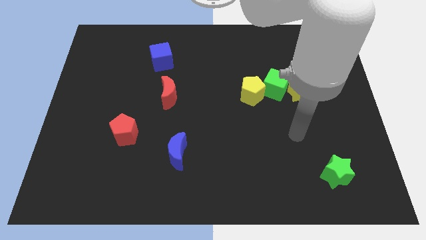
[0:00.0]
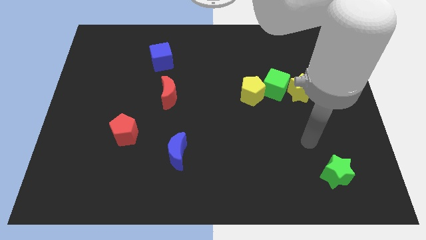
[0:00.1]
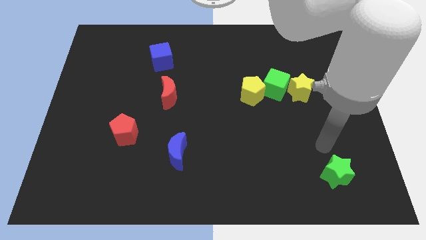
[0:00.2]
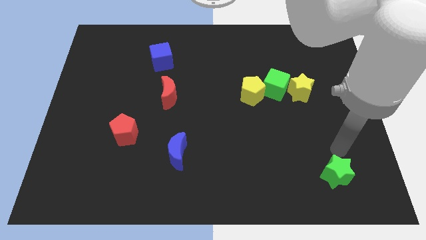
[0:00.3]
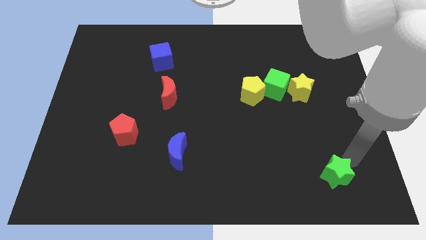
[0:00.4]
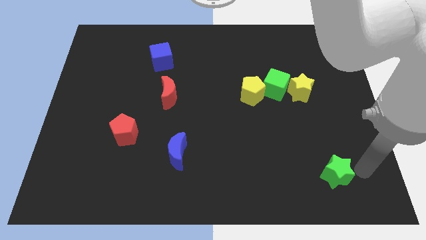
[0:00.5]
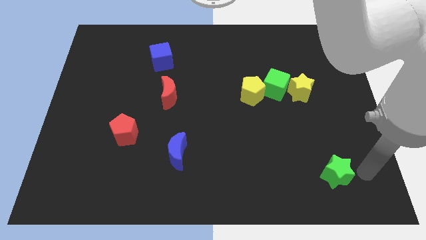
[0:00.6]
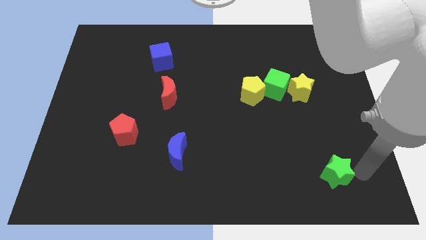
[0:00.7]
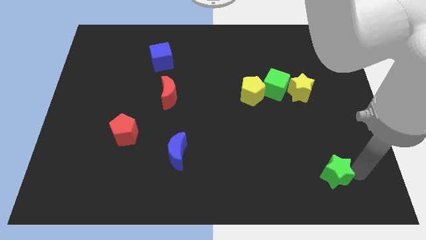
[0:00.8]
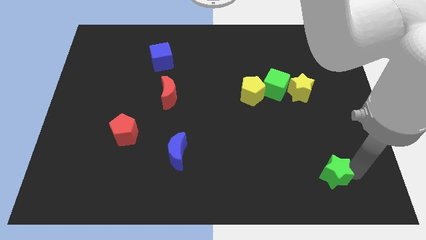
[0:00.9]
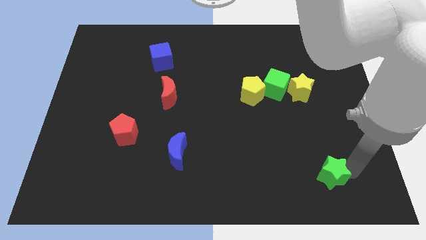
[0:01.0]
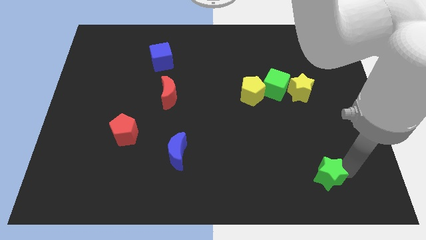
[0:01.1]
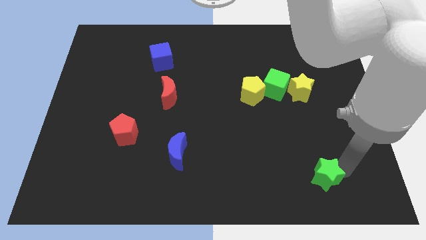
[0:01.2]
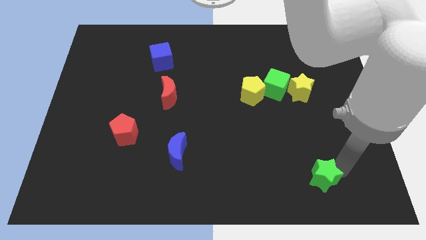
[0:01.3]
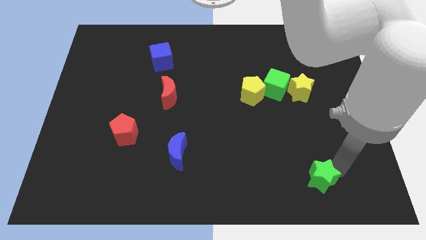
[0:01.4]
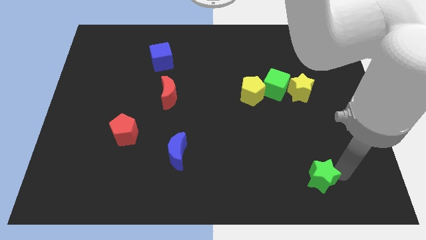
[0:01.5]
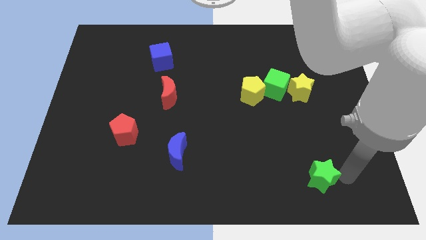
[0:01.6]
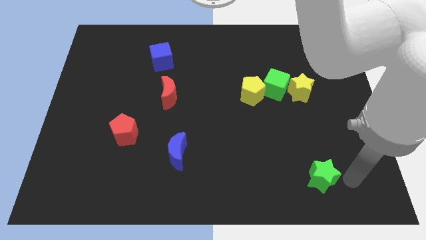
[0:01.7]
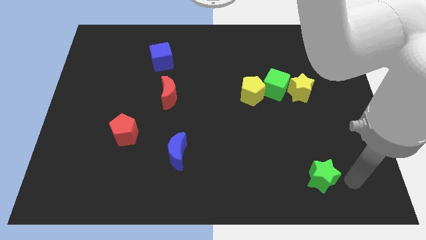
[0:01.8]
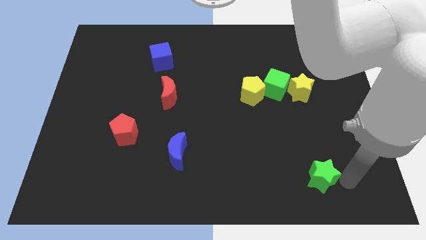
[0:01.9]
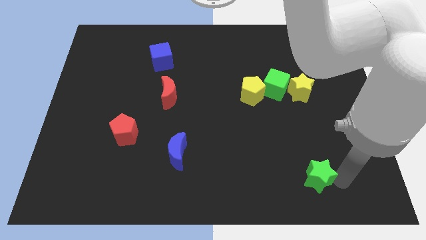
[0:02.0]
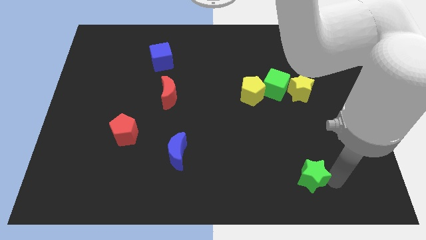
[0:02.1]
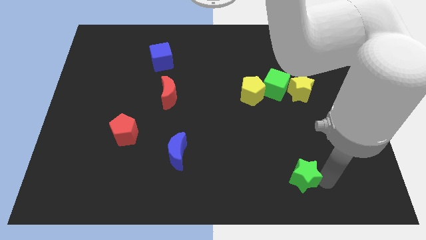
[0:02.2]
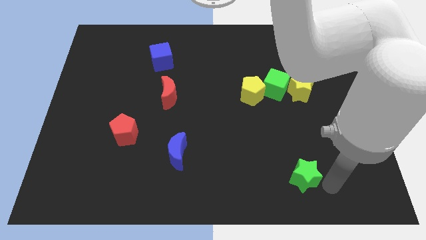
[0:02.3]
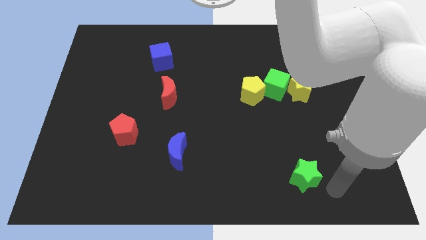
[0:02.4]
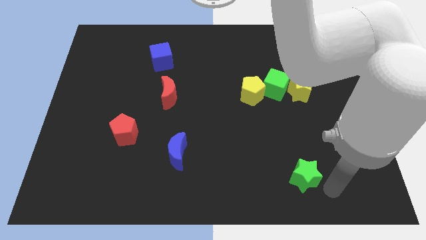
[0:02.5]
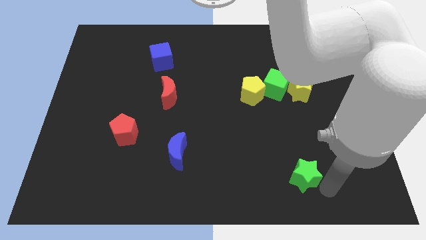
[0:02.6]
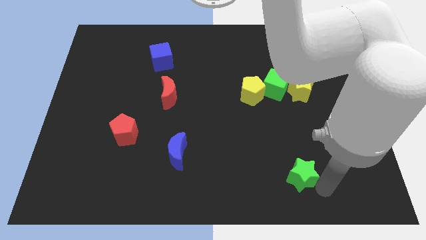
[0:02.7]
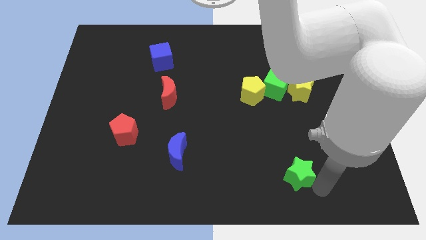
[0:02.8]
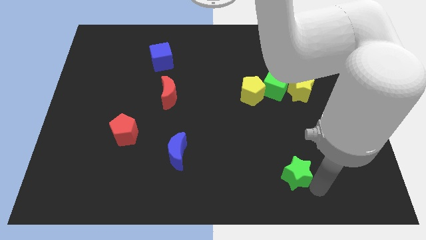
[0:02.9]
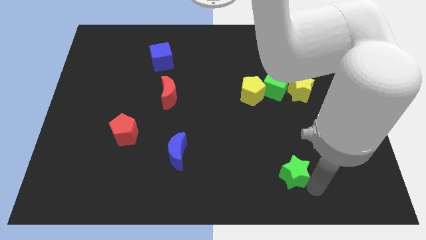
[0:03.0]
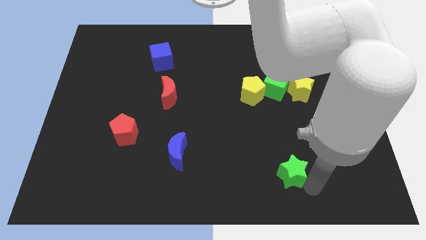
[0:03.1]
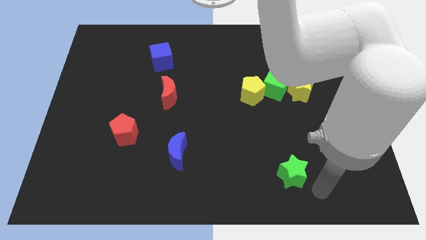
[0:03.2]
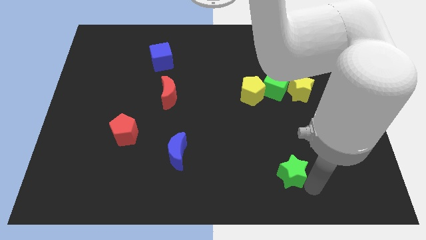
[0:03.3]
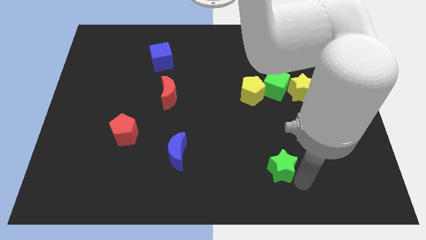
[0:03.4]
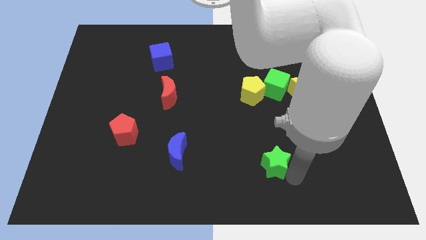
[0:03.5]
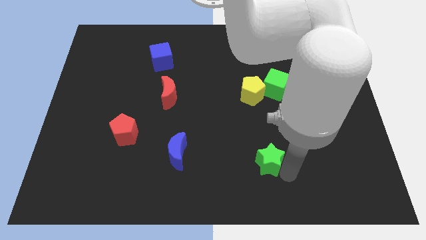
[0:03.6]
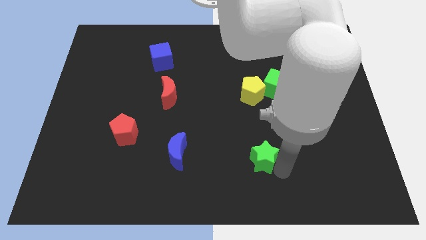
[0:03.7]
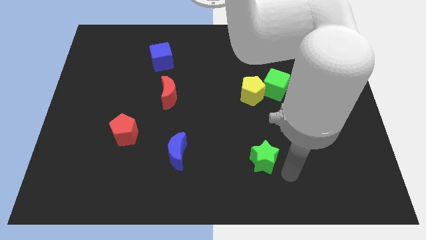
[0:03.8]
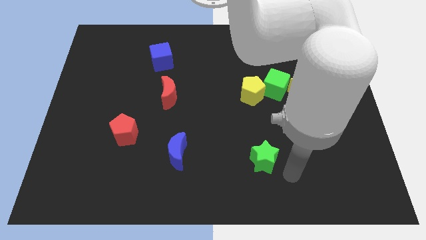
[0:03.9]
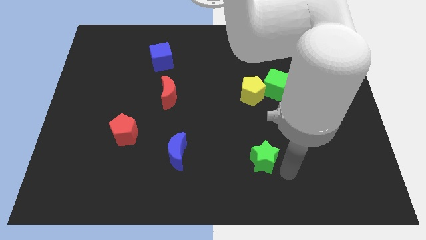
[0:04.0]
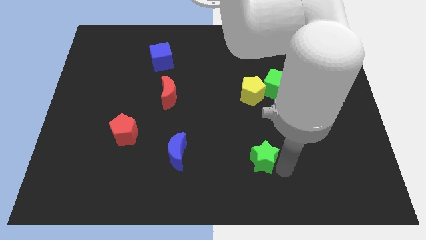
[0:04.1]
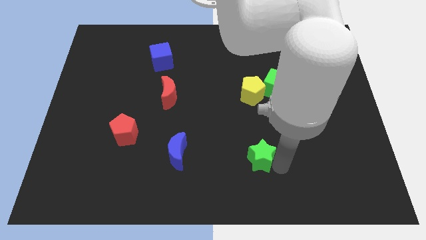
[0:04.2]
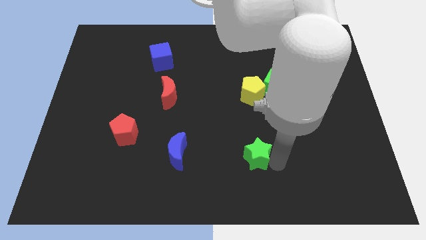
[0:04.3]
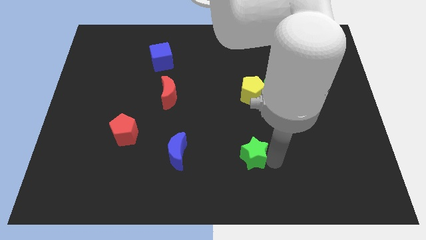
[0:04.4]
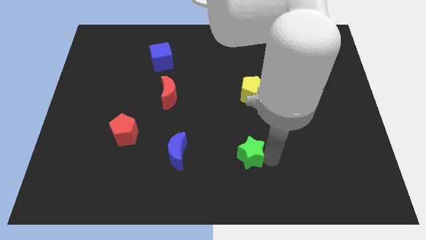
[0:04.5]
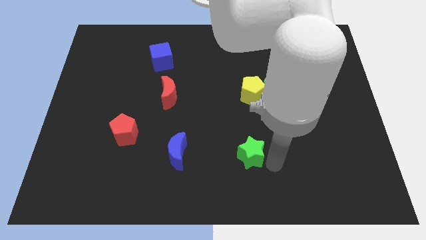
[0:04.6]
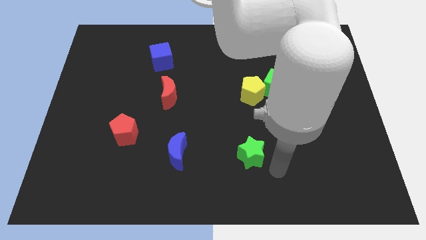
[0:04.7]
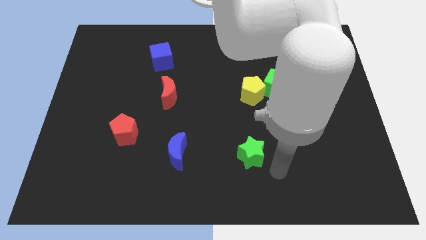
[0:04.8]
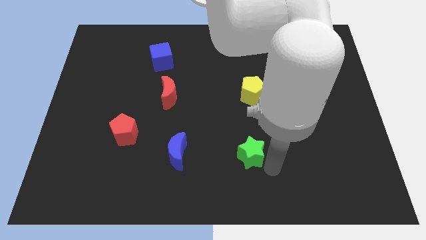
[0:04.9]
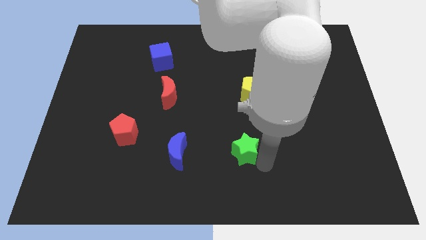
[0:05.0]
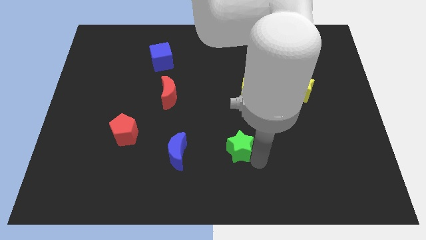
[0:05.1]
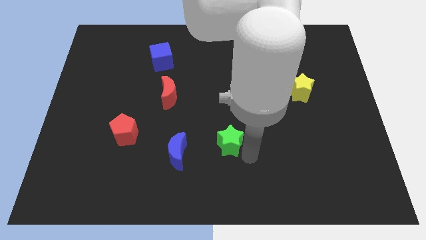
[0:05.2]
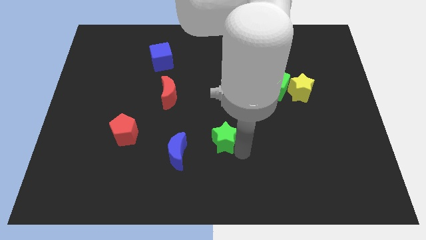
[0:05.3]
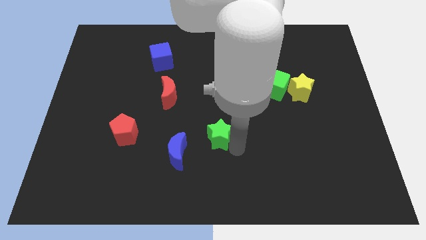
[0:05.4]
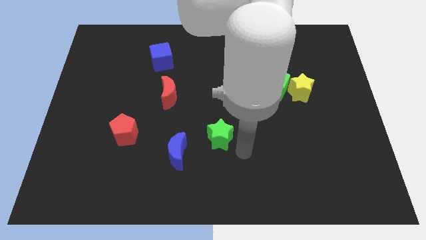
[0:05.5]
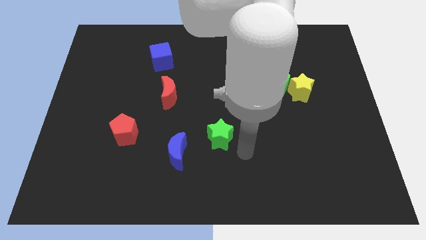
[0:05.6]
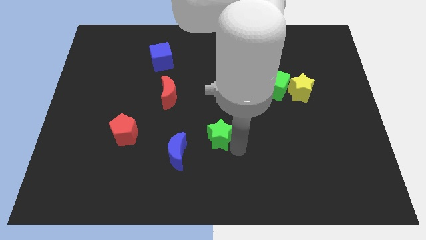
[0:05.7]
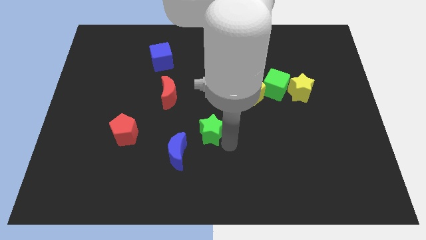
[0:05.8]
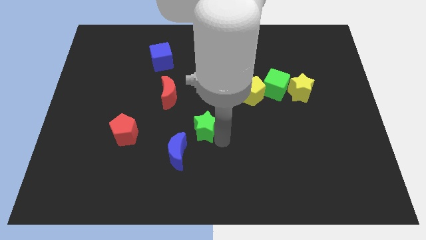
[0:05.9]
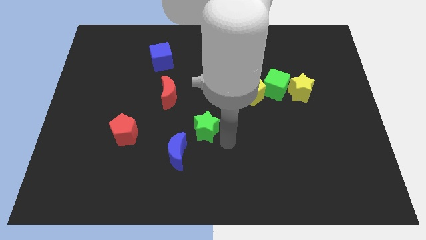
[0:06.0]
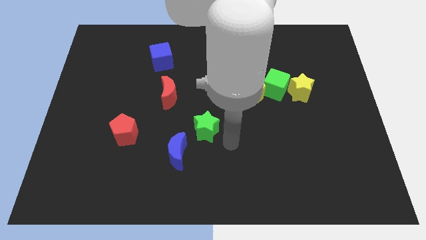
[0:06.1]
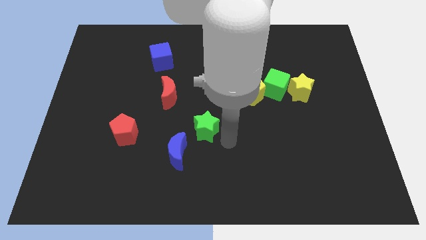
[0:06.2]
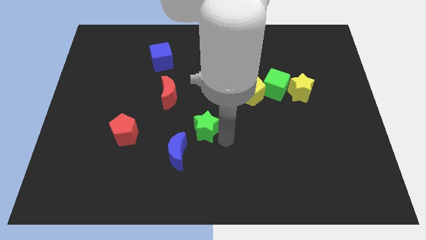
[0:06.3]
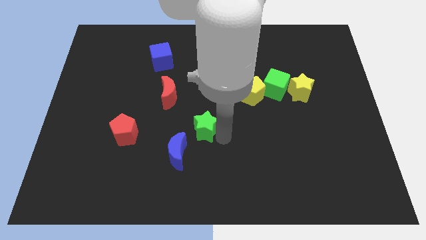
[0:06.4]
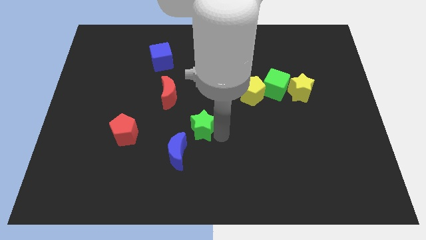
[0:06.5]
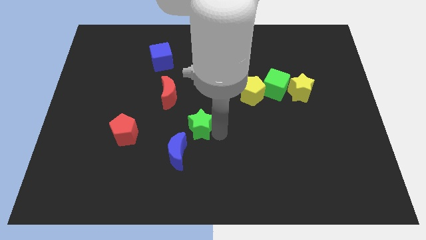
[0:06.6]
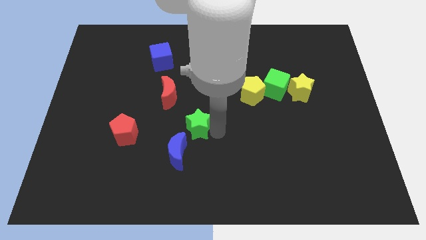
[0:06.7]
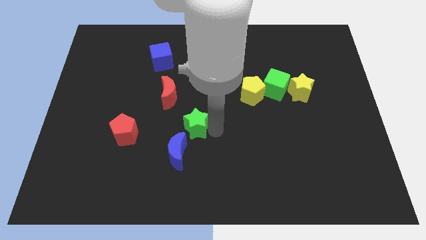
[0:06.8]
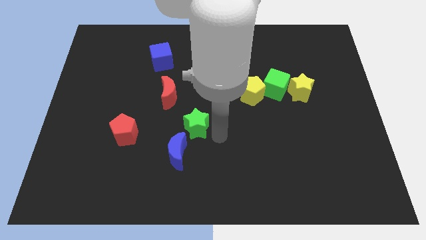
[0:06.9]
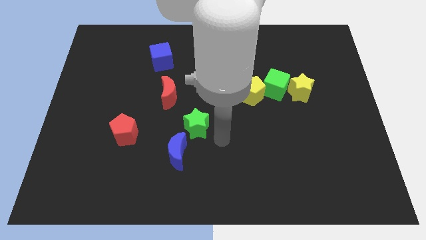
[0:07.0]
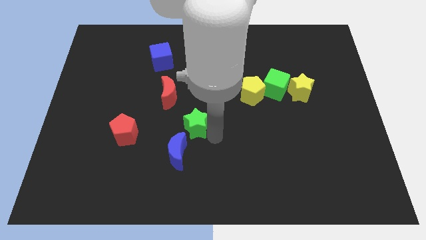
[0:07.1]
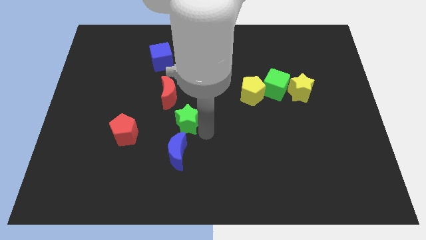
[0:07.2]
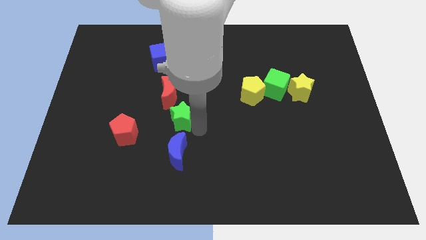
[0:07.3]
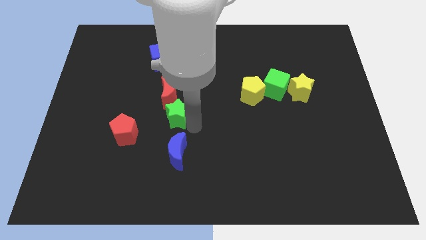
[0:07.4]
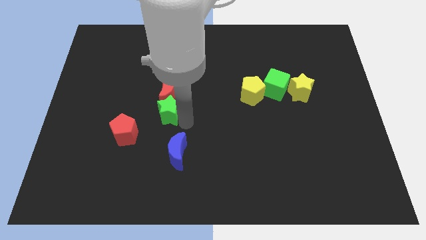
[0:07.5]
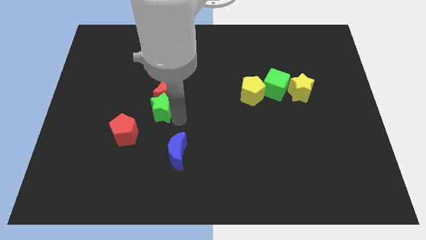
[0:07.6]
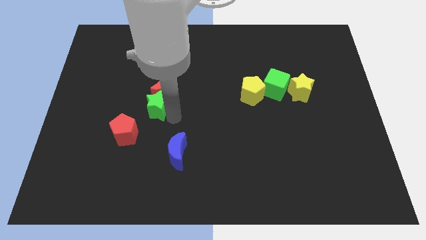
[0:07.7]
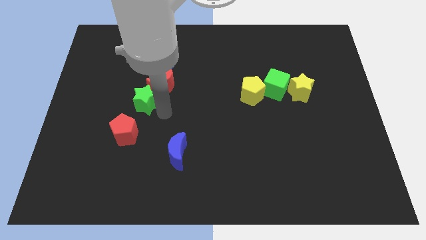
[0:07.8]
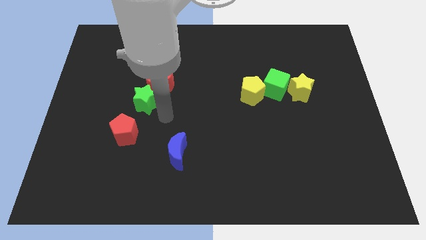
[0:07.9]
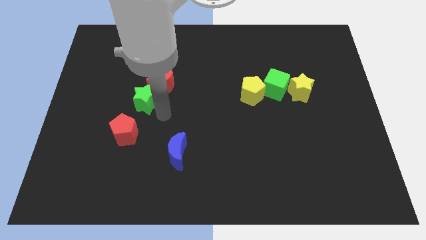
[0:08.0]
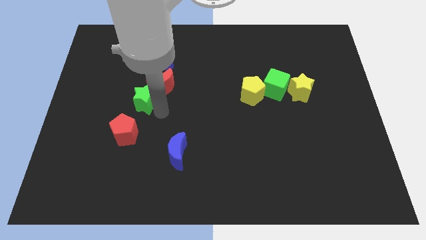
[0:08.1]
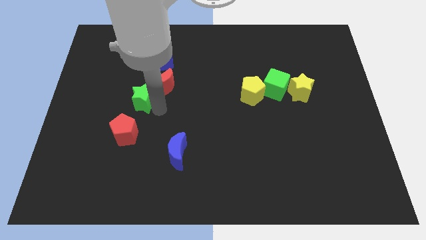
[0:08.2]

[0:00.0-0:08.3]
move the green star left of the red moon
